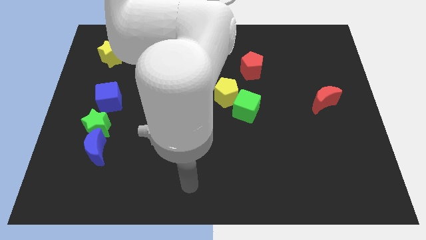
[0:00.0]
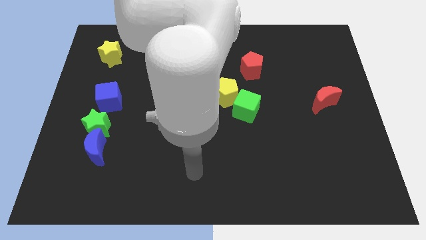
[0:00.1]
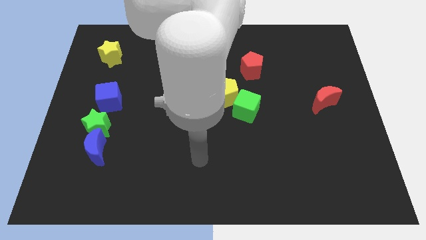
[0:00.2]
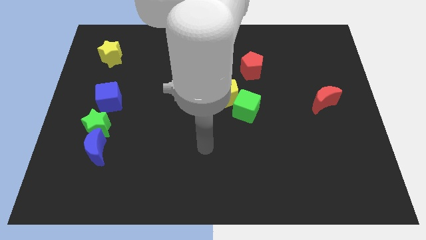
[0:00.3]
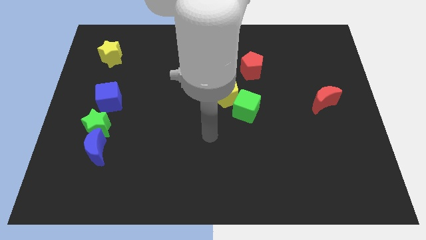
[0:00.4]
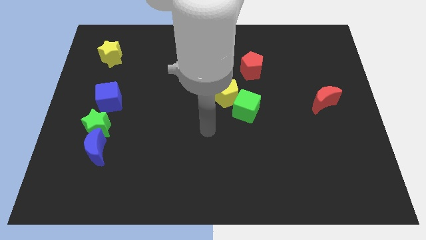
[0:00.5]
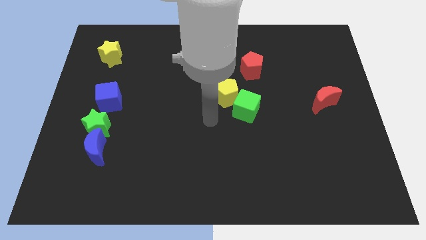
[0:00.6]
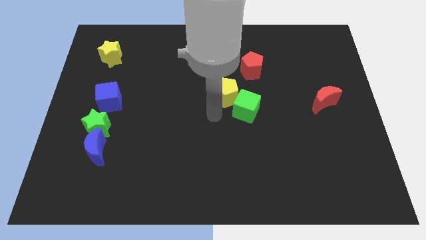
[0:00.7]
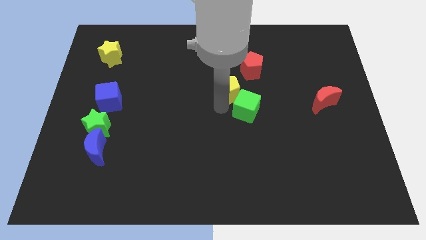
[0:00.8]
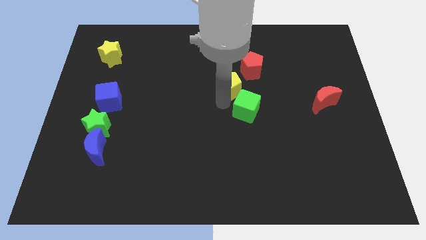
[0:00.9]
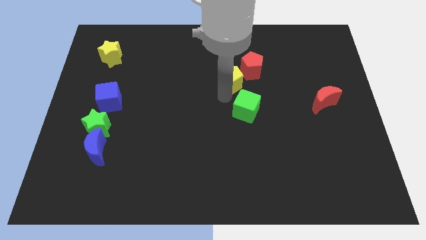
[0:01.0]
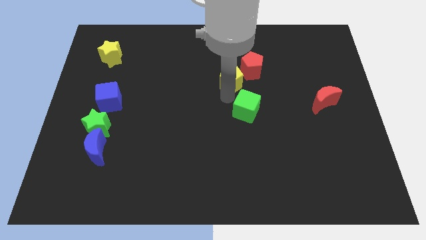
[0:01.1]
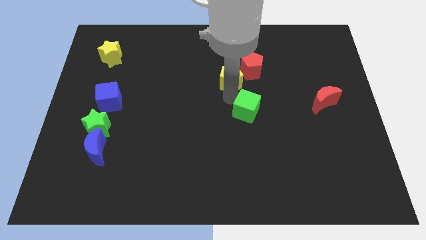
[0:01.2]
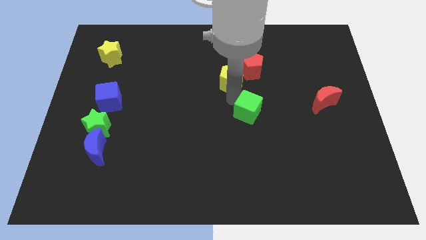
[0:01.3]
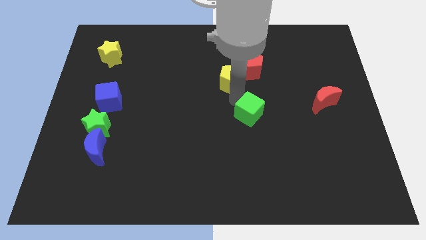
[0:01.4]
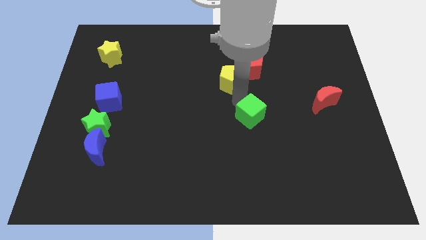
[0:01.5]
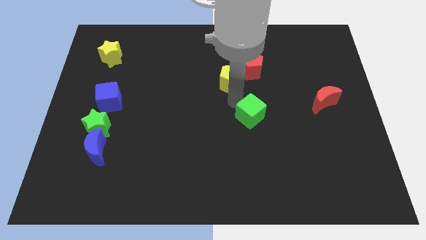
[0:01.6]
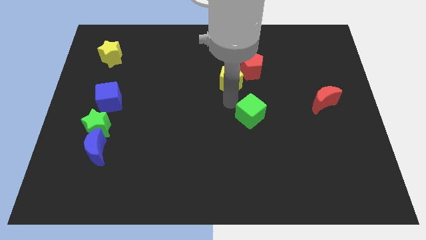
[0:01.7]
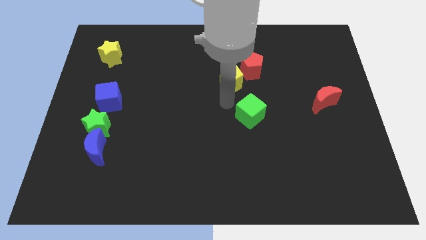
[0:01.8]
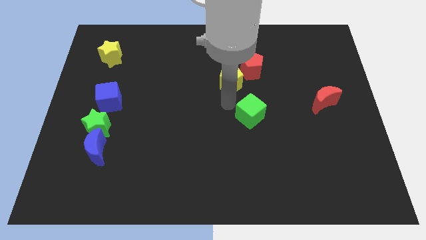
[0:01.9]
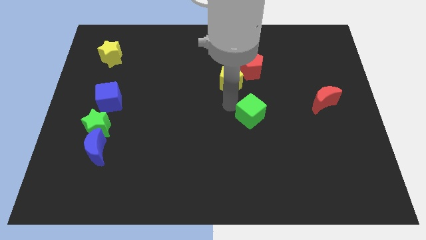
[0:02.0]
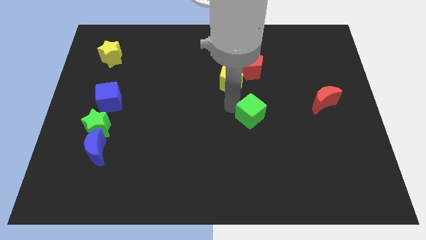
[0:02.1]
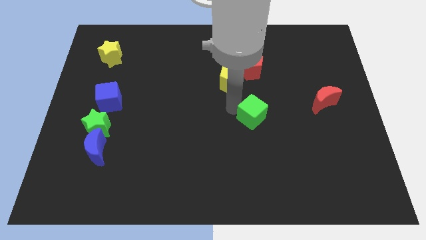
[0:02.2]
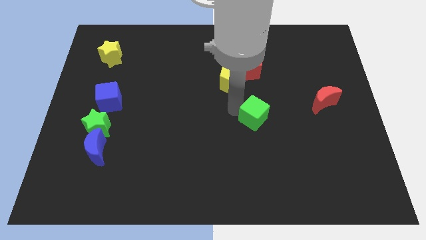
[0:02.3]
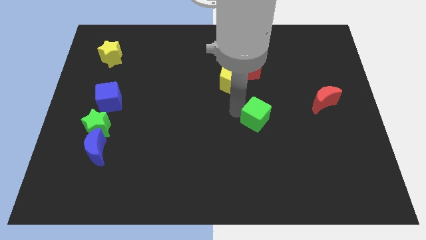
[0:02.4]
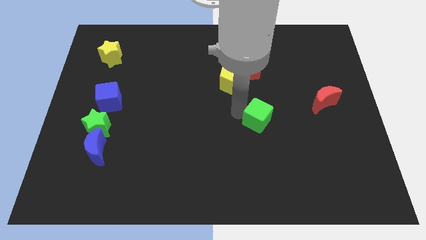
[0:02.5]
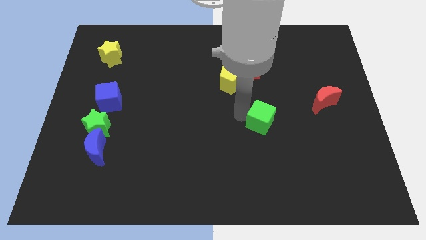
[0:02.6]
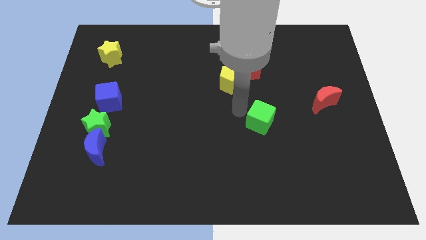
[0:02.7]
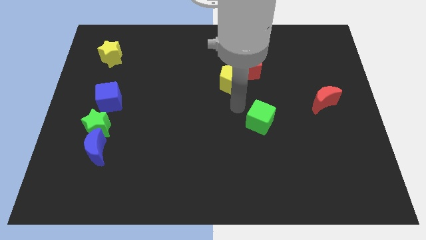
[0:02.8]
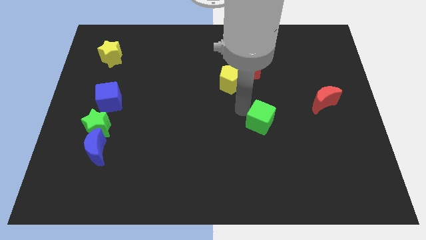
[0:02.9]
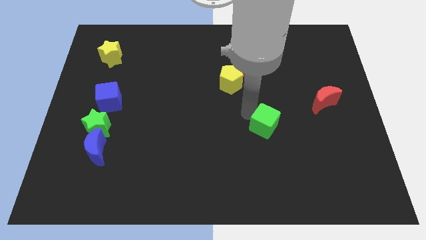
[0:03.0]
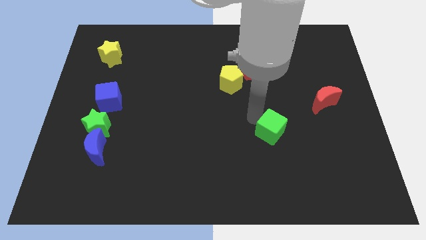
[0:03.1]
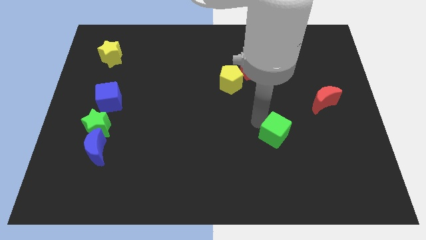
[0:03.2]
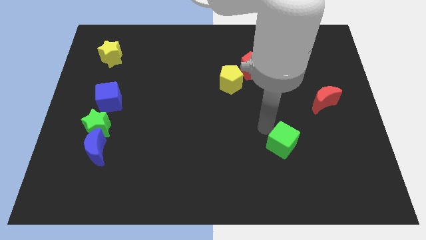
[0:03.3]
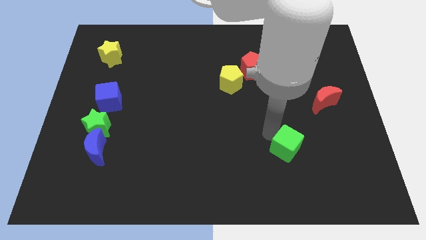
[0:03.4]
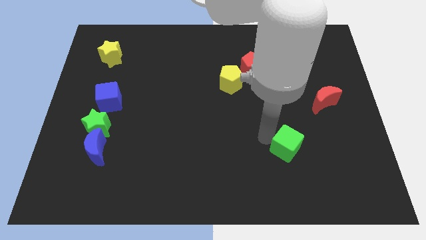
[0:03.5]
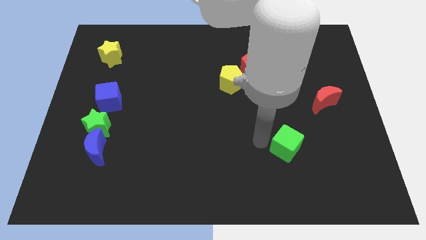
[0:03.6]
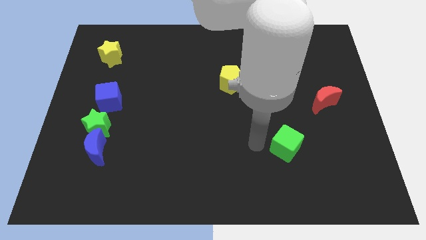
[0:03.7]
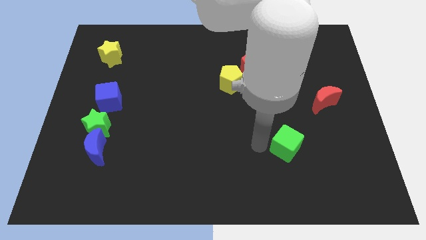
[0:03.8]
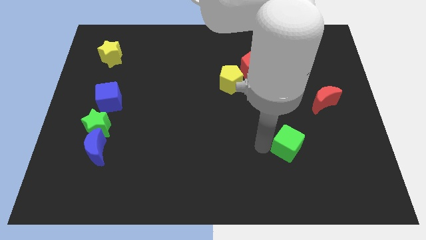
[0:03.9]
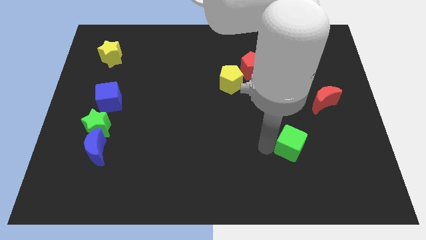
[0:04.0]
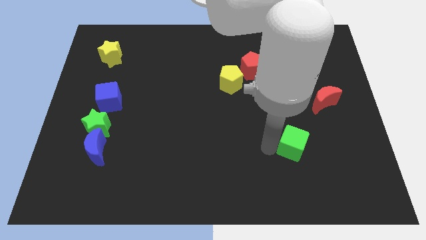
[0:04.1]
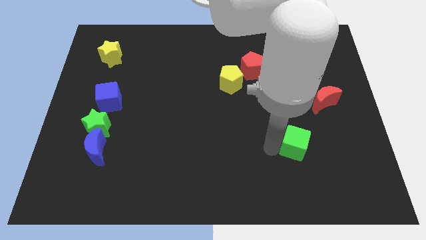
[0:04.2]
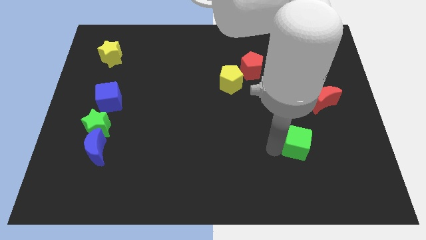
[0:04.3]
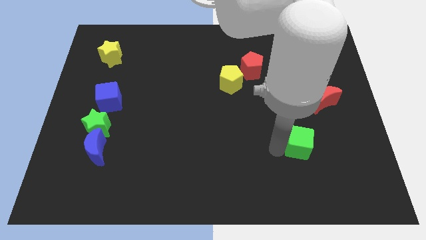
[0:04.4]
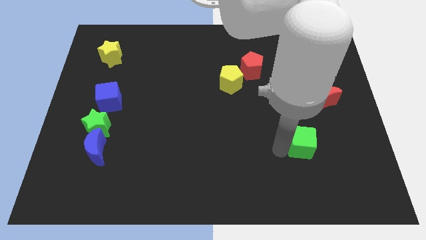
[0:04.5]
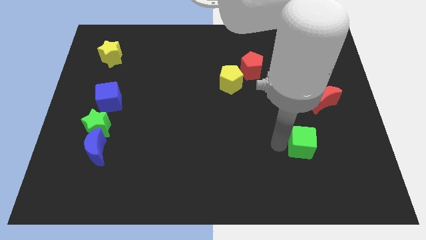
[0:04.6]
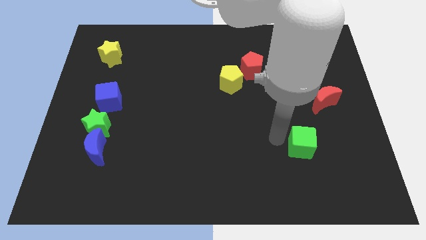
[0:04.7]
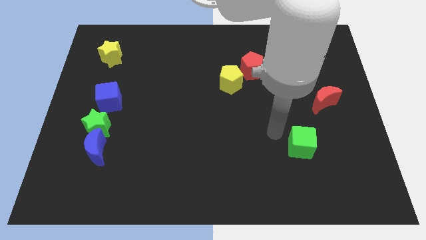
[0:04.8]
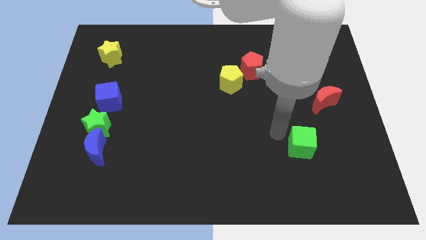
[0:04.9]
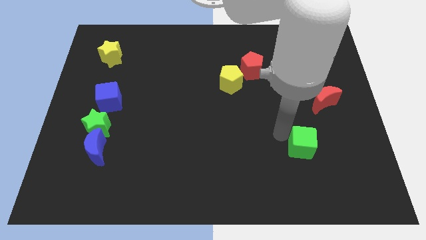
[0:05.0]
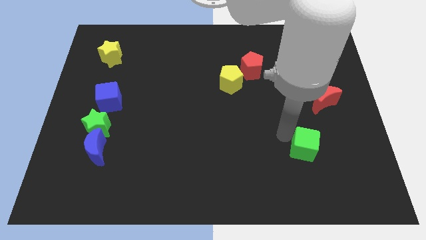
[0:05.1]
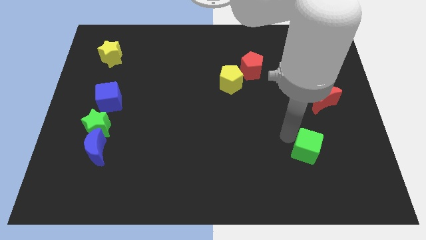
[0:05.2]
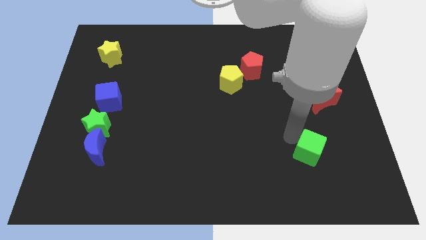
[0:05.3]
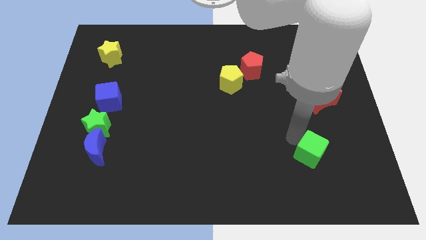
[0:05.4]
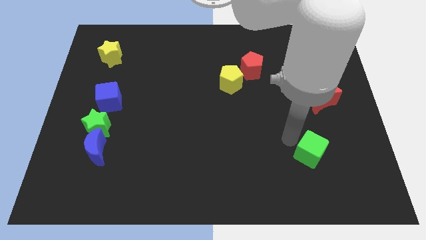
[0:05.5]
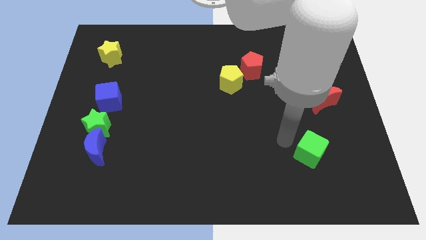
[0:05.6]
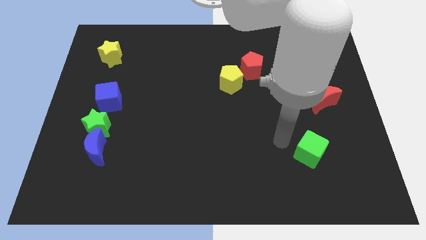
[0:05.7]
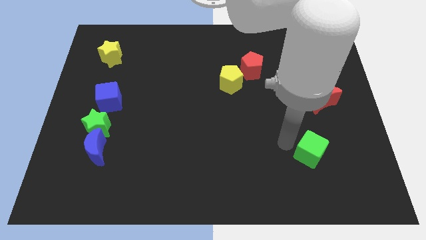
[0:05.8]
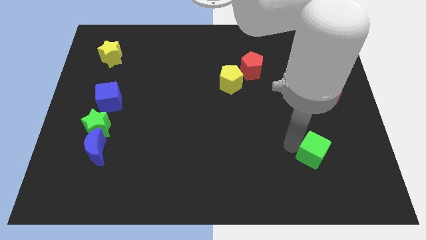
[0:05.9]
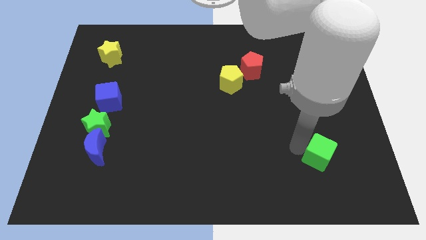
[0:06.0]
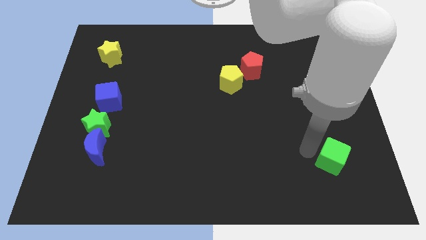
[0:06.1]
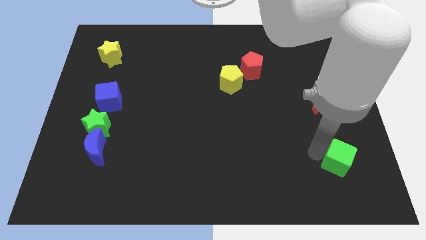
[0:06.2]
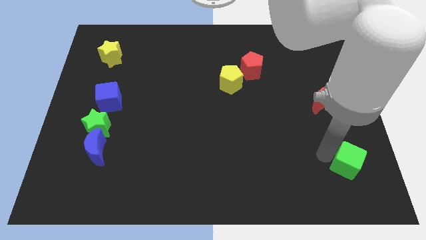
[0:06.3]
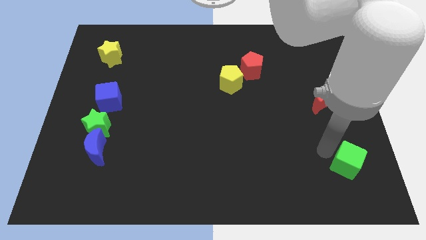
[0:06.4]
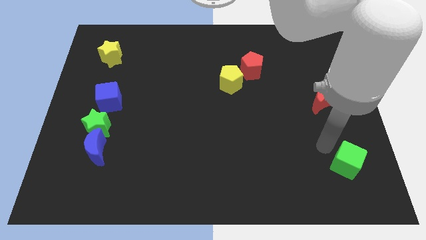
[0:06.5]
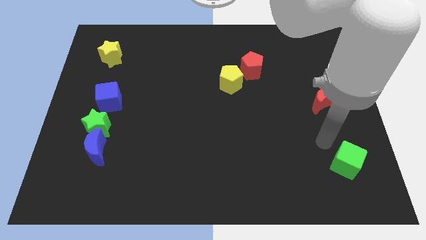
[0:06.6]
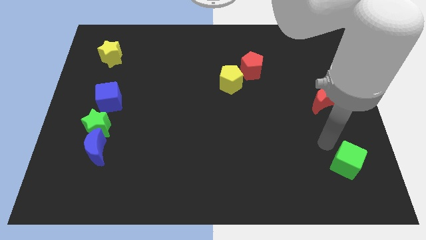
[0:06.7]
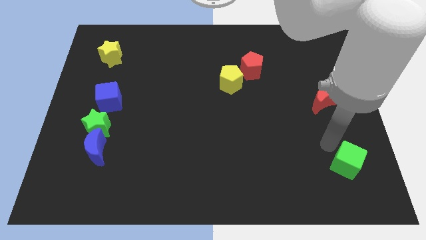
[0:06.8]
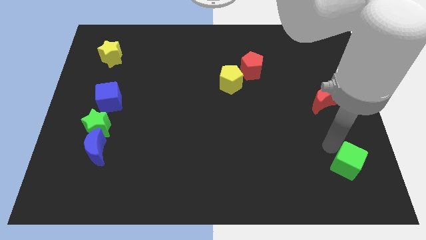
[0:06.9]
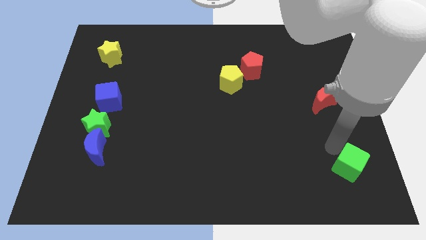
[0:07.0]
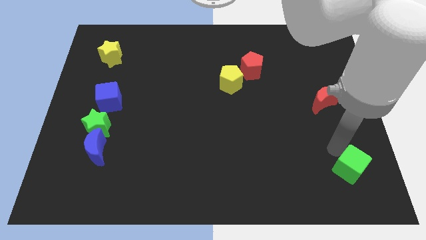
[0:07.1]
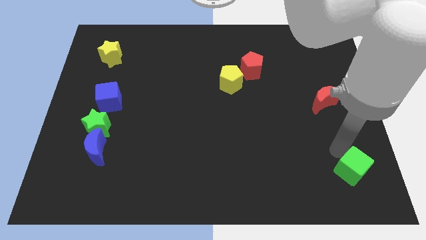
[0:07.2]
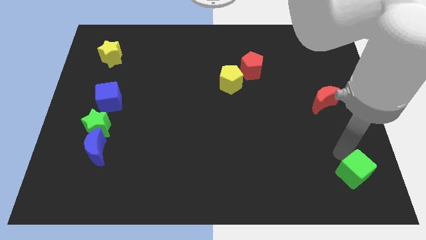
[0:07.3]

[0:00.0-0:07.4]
put the green cube to the bottom right corner

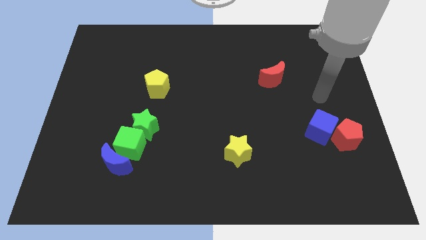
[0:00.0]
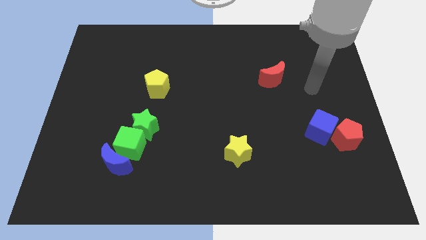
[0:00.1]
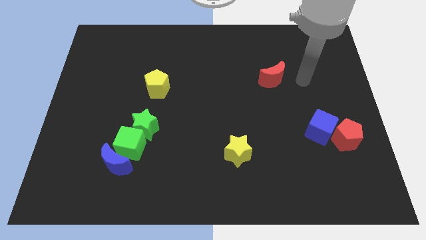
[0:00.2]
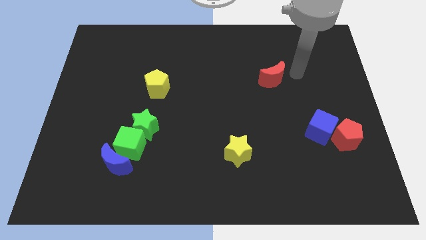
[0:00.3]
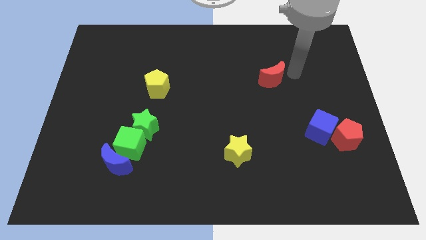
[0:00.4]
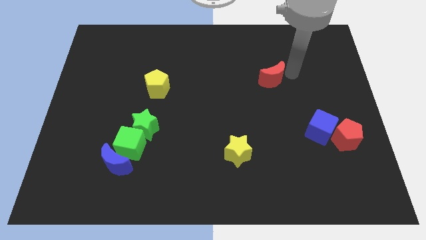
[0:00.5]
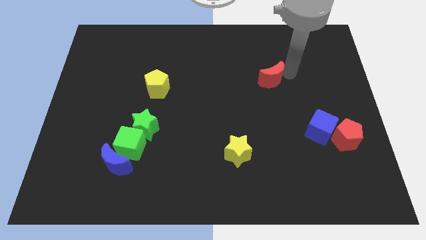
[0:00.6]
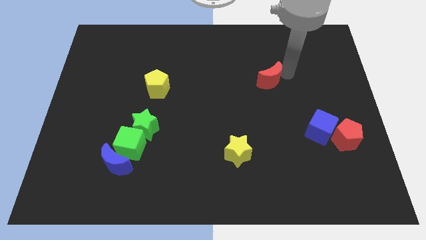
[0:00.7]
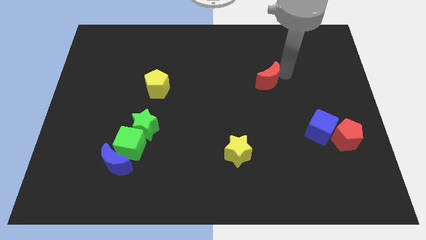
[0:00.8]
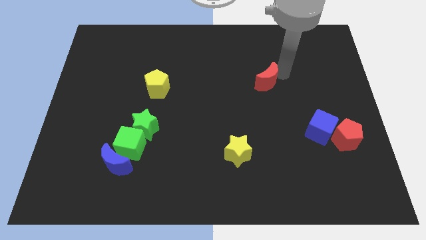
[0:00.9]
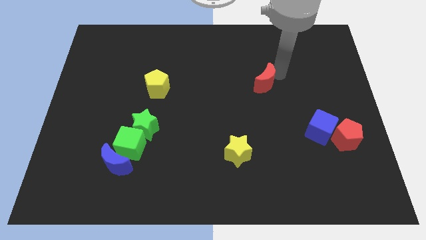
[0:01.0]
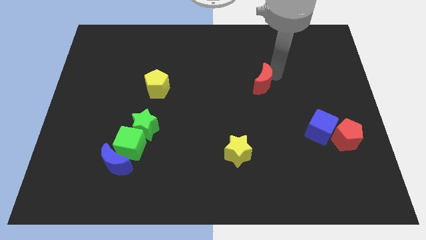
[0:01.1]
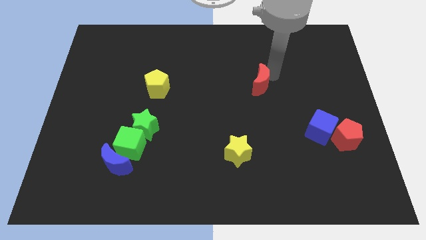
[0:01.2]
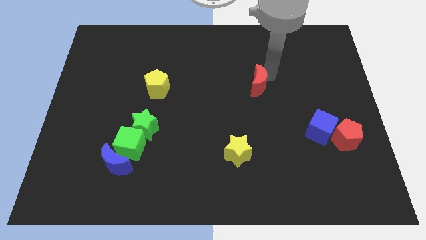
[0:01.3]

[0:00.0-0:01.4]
move the red moon to the middle
